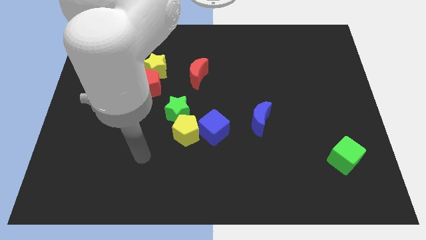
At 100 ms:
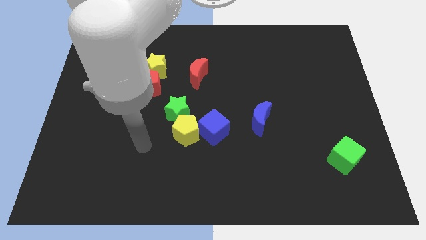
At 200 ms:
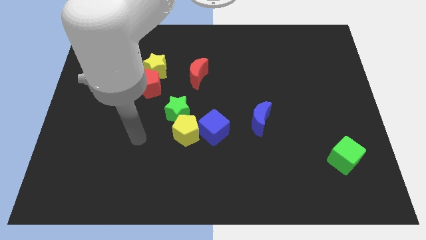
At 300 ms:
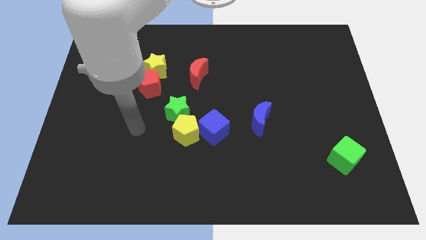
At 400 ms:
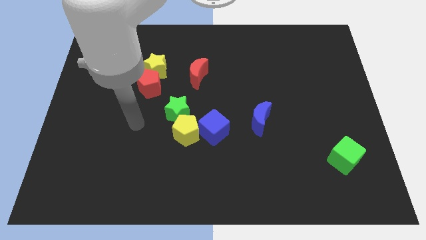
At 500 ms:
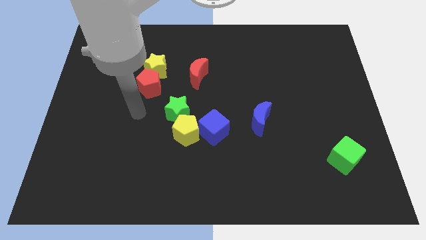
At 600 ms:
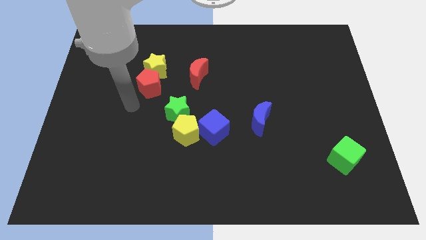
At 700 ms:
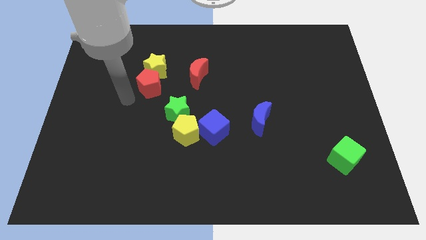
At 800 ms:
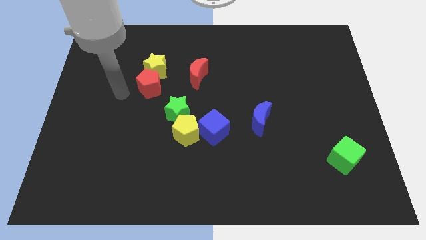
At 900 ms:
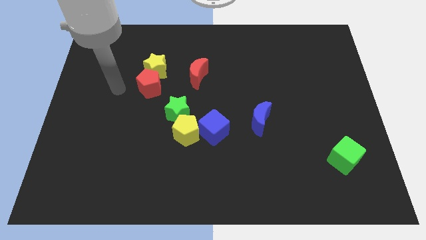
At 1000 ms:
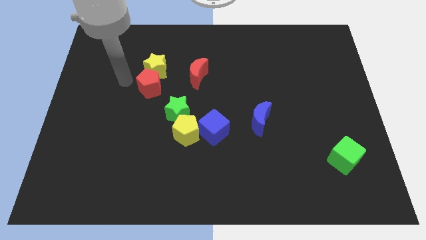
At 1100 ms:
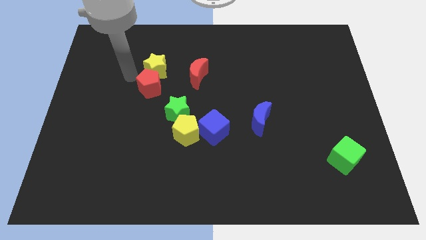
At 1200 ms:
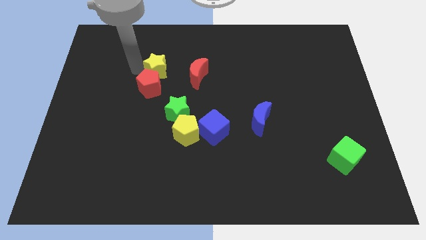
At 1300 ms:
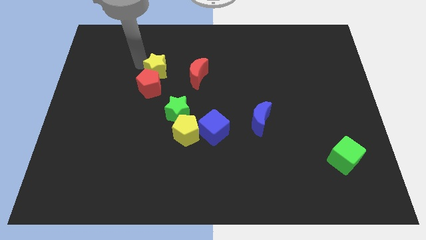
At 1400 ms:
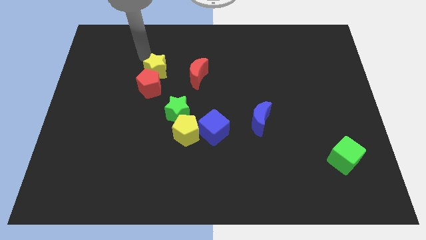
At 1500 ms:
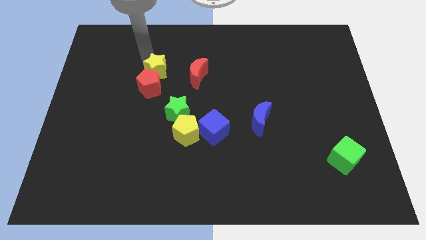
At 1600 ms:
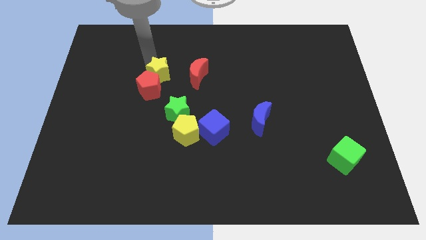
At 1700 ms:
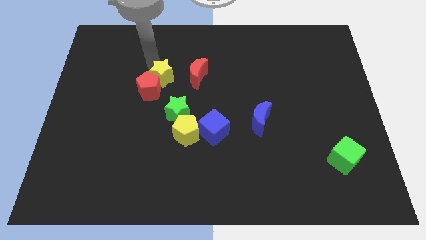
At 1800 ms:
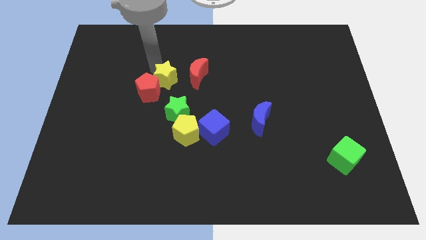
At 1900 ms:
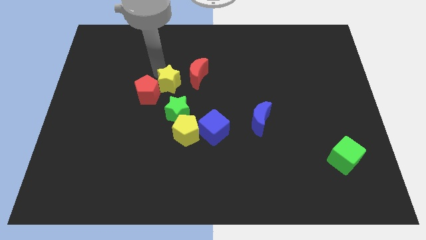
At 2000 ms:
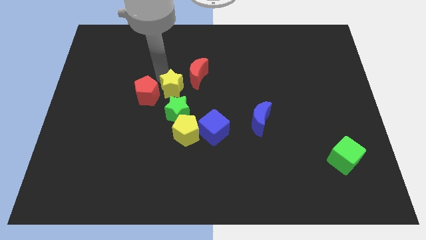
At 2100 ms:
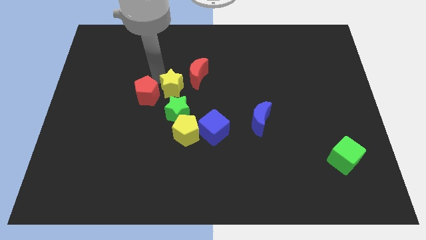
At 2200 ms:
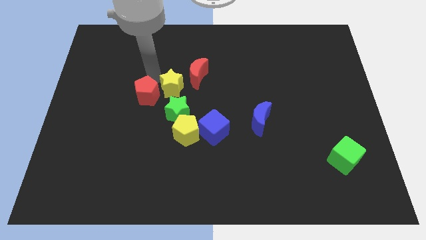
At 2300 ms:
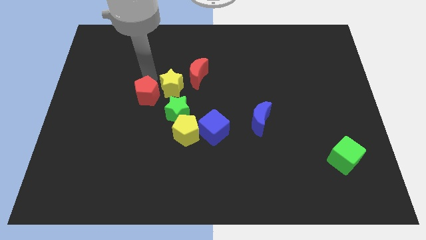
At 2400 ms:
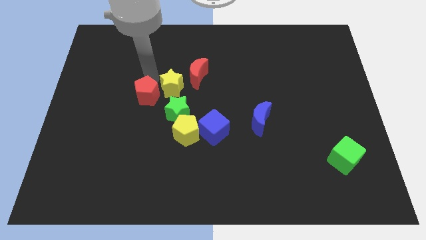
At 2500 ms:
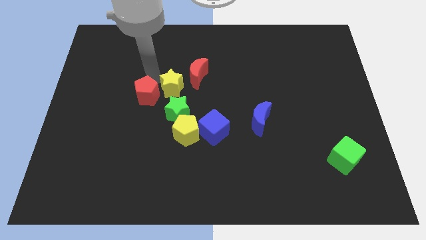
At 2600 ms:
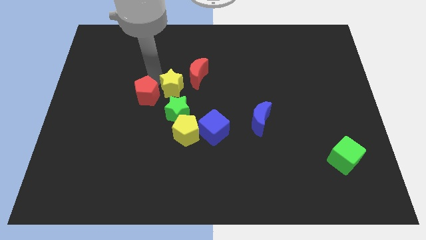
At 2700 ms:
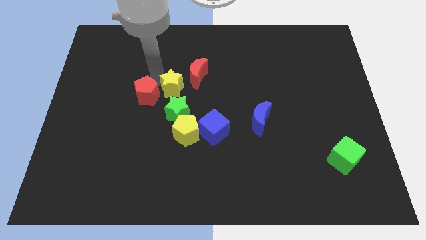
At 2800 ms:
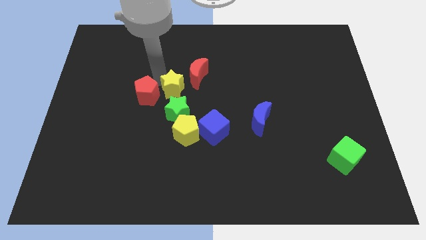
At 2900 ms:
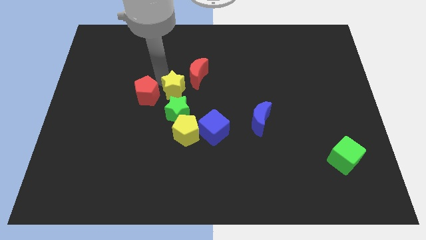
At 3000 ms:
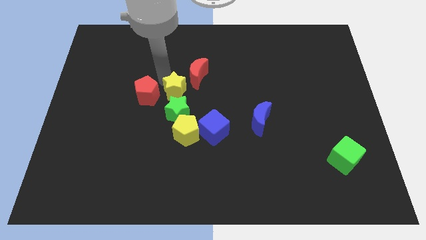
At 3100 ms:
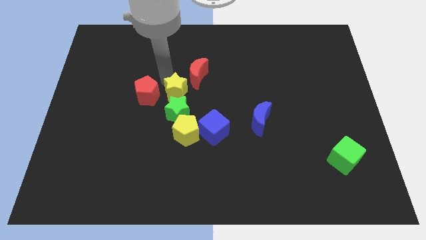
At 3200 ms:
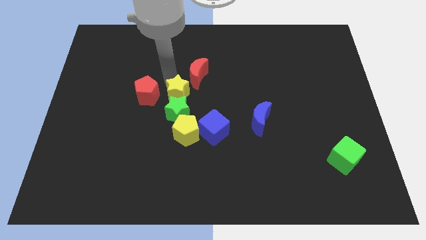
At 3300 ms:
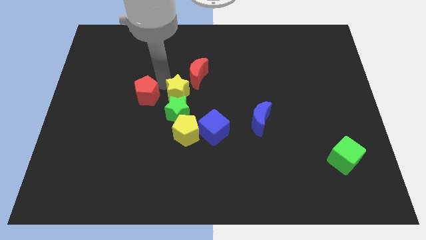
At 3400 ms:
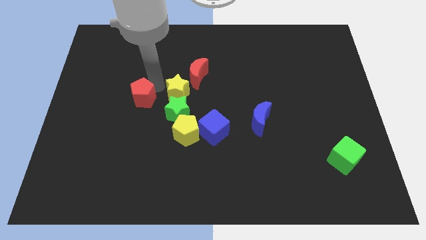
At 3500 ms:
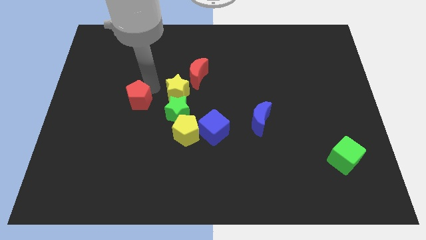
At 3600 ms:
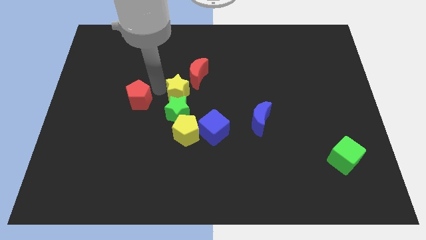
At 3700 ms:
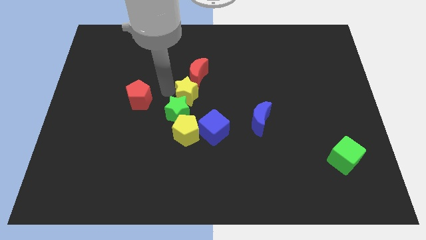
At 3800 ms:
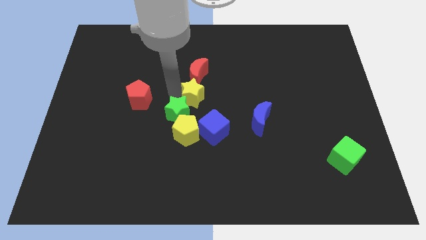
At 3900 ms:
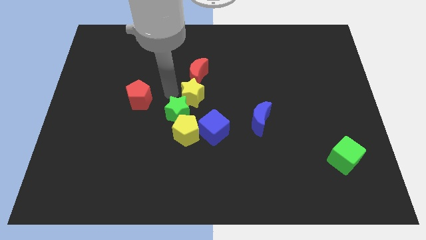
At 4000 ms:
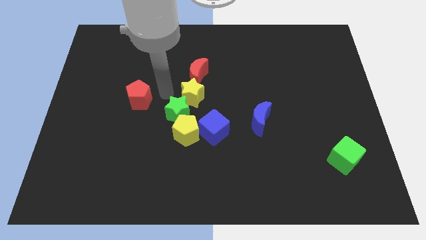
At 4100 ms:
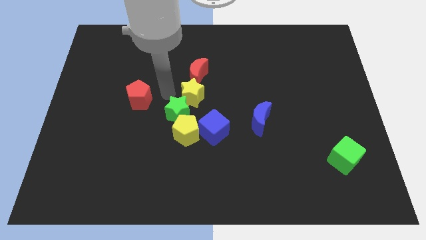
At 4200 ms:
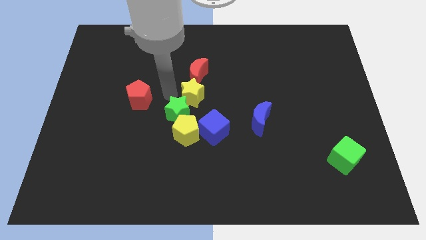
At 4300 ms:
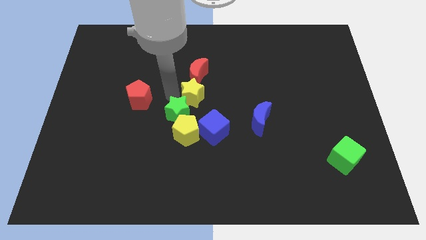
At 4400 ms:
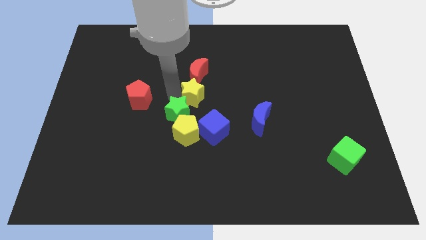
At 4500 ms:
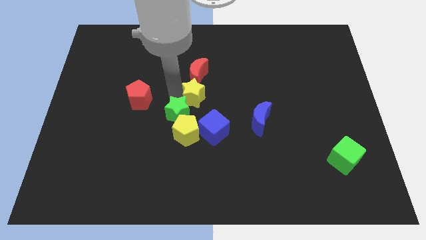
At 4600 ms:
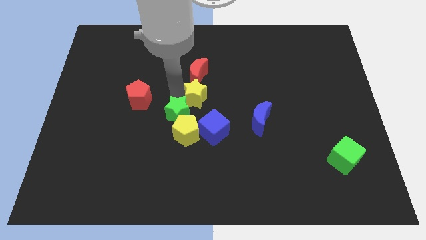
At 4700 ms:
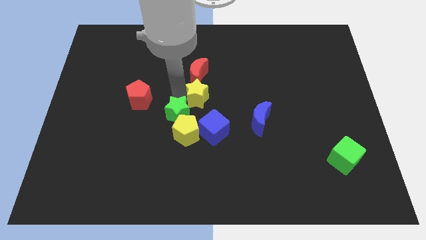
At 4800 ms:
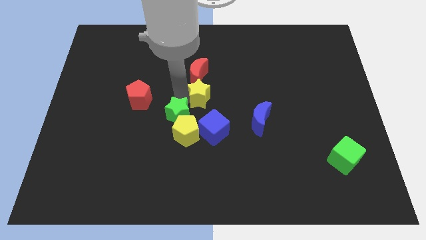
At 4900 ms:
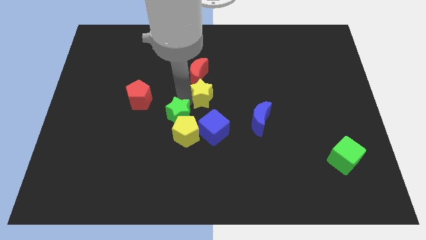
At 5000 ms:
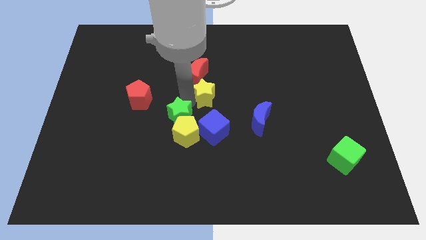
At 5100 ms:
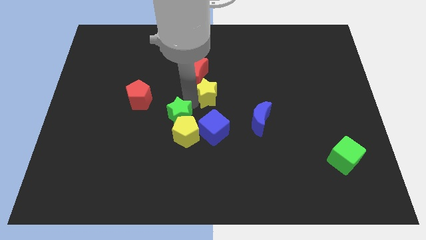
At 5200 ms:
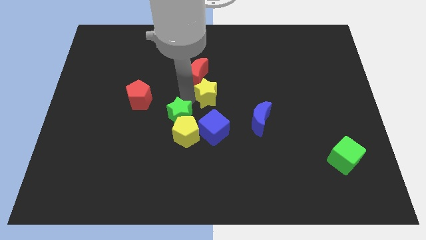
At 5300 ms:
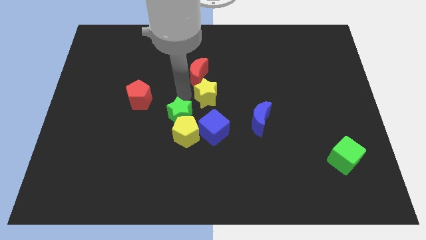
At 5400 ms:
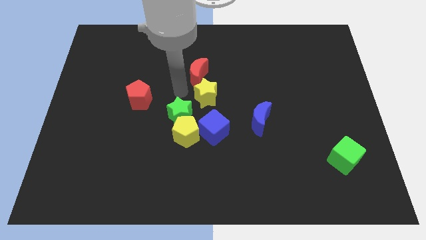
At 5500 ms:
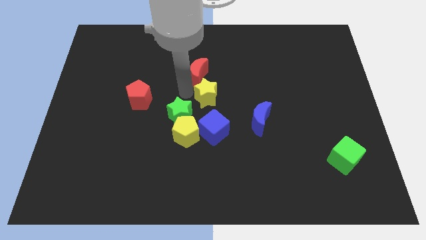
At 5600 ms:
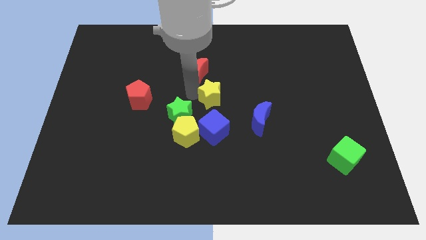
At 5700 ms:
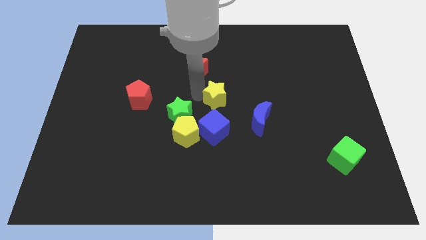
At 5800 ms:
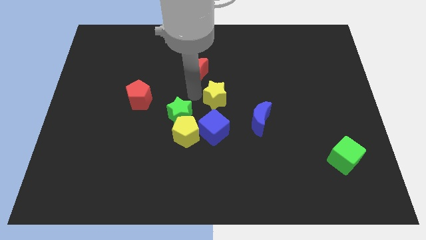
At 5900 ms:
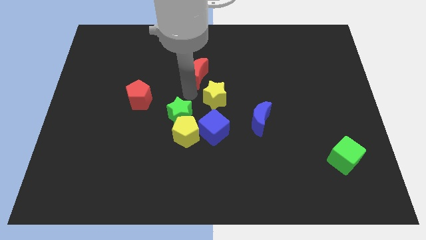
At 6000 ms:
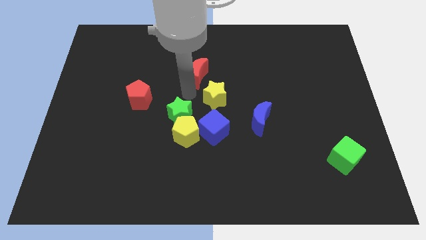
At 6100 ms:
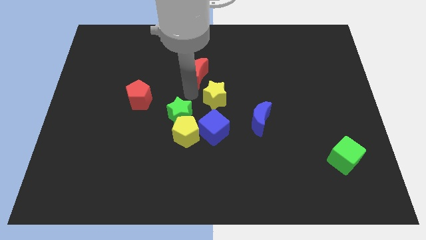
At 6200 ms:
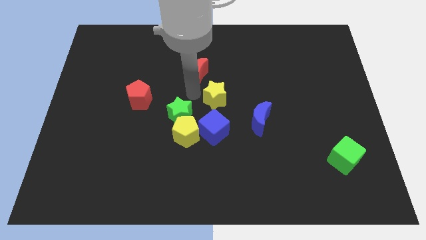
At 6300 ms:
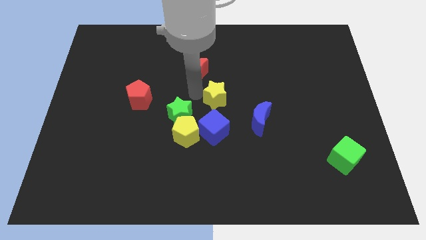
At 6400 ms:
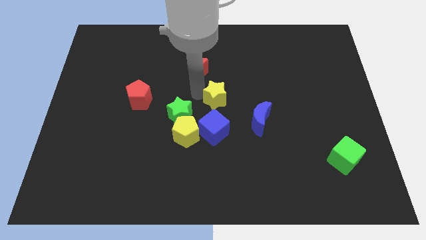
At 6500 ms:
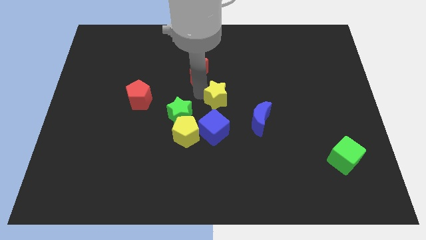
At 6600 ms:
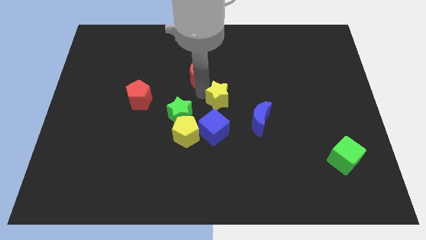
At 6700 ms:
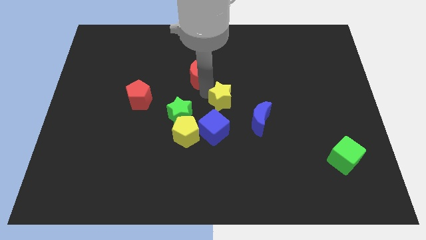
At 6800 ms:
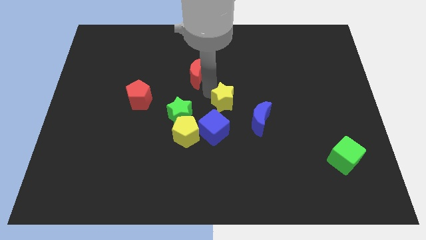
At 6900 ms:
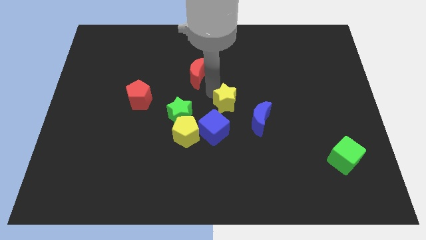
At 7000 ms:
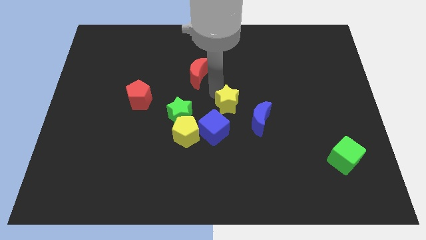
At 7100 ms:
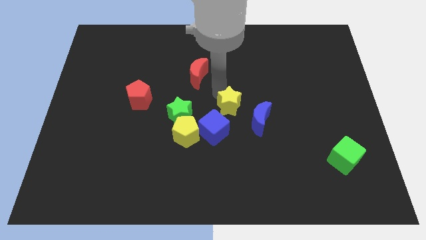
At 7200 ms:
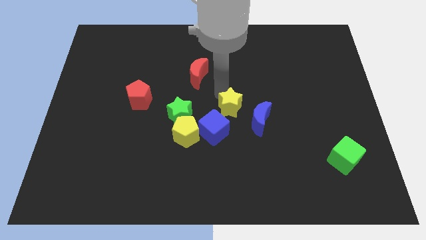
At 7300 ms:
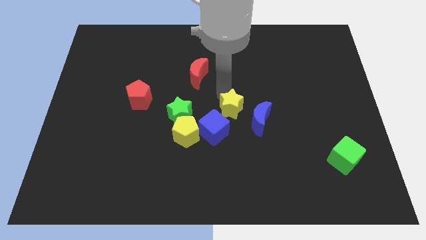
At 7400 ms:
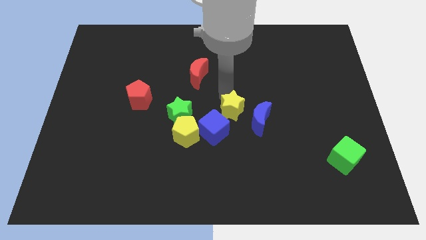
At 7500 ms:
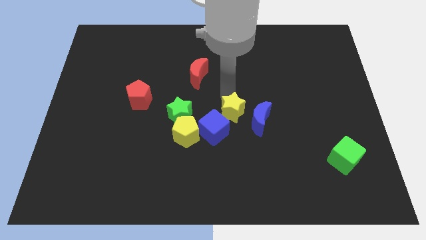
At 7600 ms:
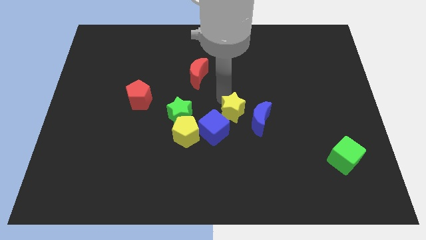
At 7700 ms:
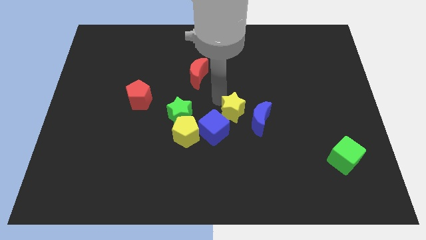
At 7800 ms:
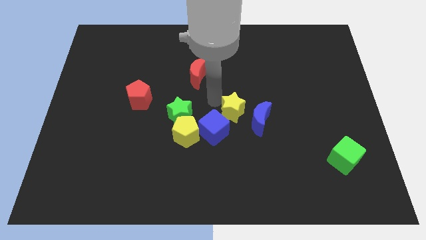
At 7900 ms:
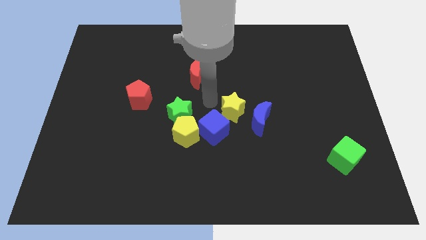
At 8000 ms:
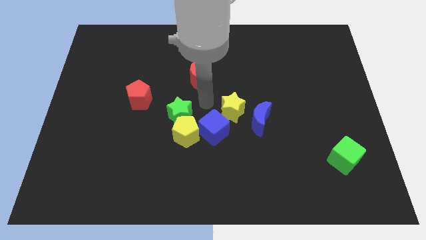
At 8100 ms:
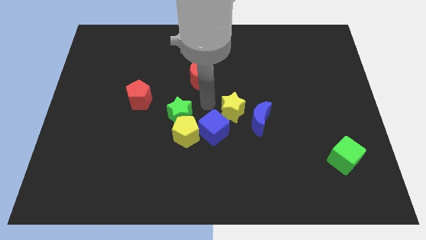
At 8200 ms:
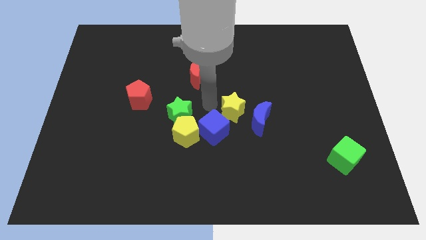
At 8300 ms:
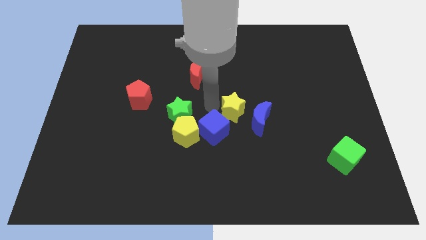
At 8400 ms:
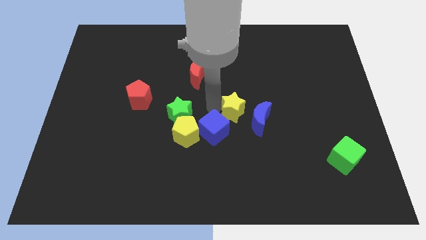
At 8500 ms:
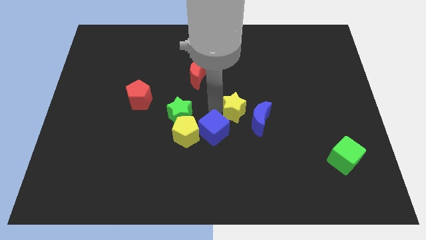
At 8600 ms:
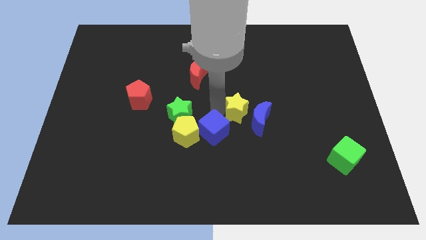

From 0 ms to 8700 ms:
put the yellow star close to the blue moon
